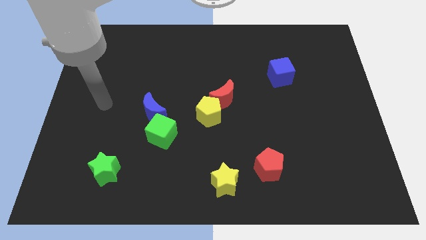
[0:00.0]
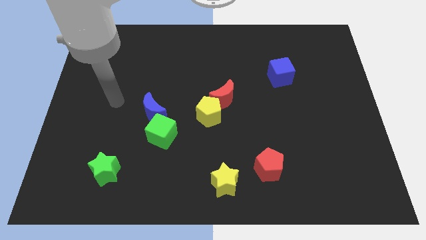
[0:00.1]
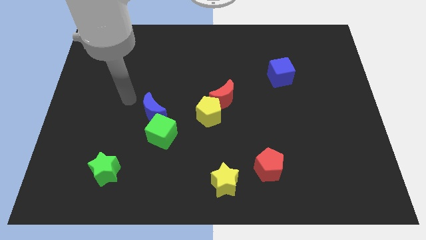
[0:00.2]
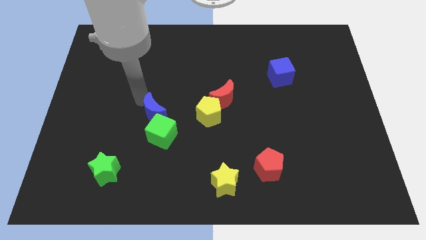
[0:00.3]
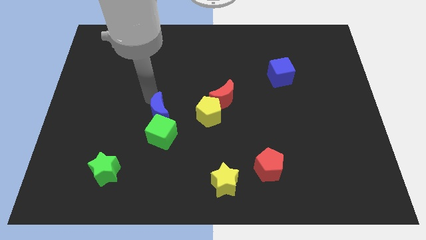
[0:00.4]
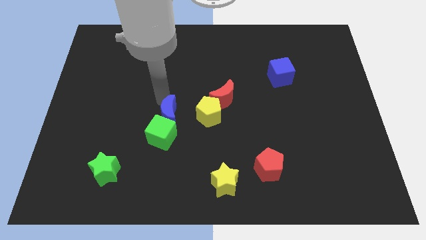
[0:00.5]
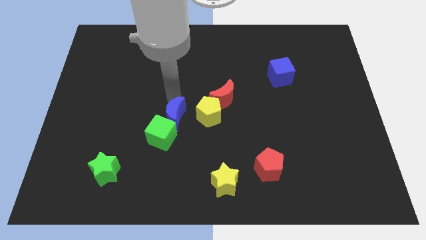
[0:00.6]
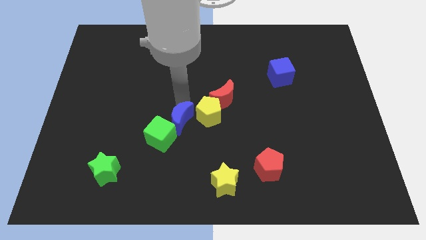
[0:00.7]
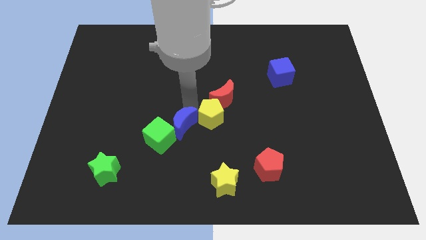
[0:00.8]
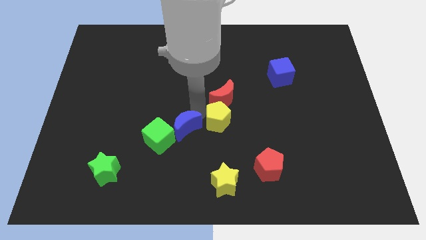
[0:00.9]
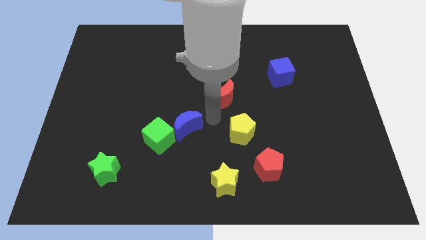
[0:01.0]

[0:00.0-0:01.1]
separate the red moon from the yellow pentagon

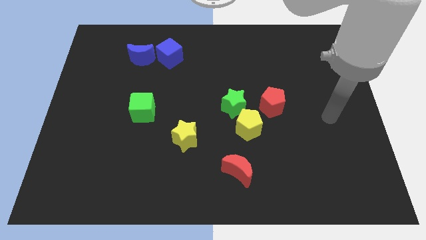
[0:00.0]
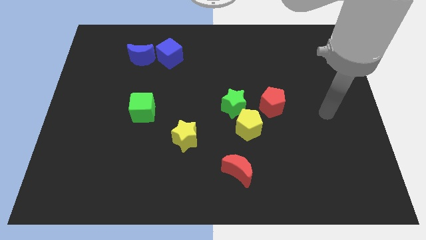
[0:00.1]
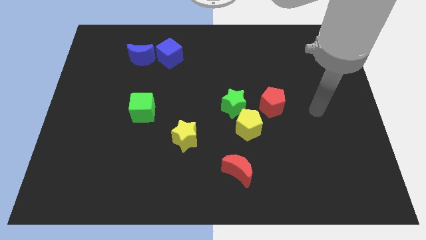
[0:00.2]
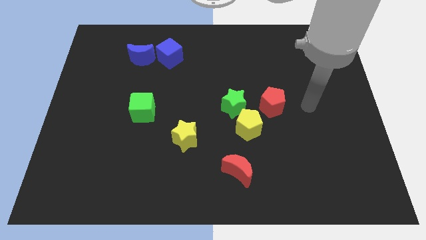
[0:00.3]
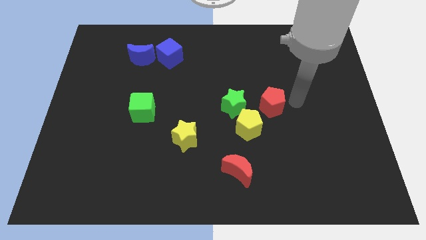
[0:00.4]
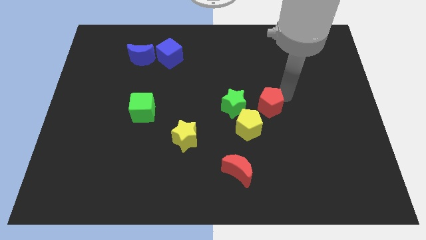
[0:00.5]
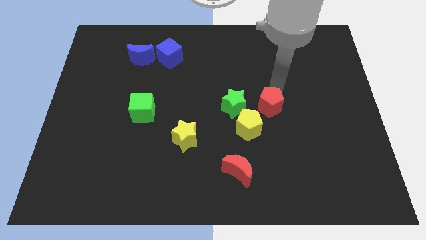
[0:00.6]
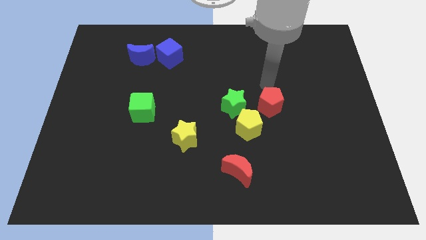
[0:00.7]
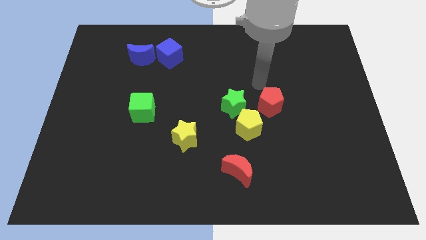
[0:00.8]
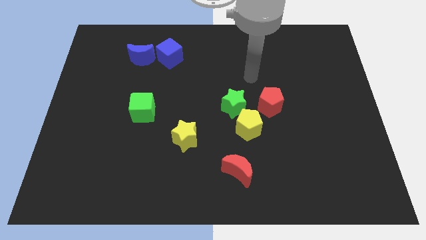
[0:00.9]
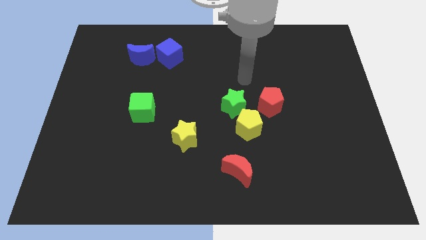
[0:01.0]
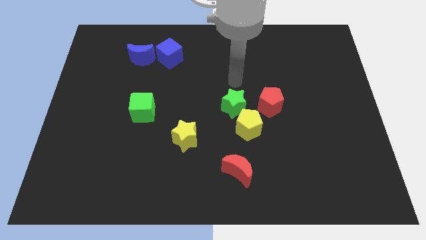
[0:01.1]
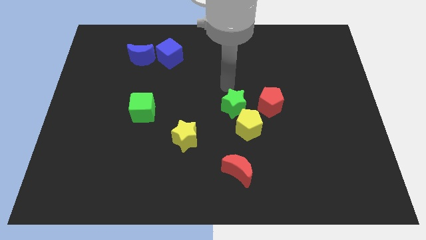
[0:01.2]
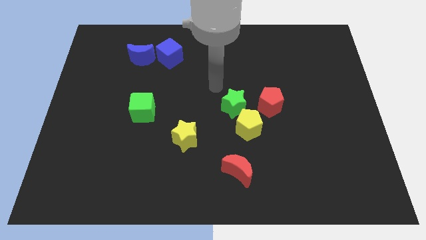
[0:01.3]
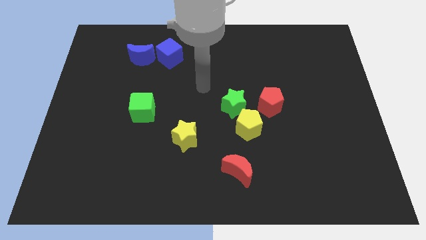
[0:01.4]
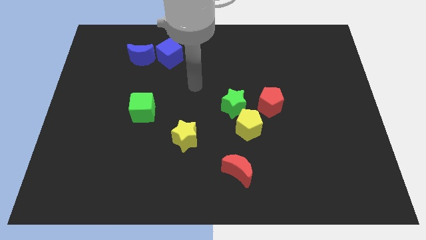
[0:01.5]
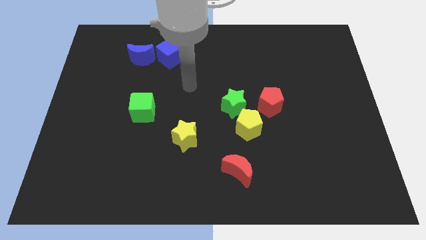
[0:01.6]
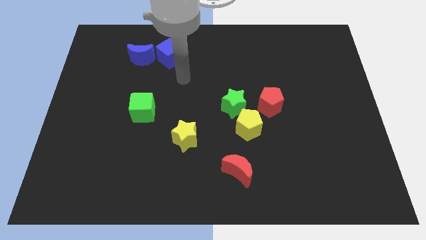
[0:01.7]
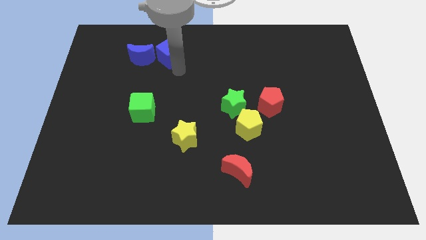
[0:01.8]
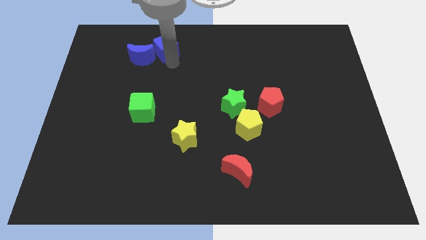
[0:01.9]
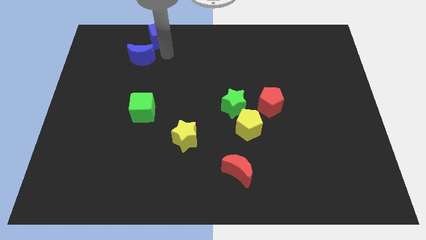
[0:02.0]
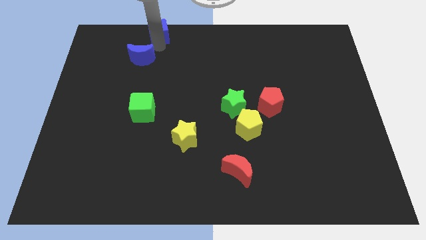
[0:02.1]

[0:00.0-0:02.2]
separate the blue moon from the blue cube
